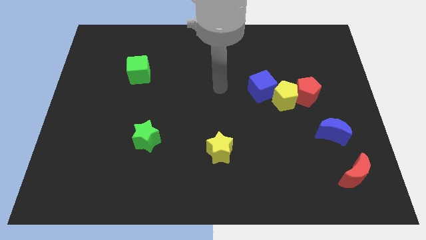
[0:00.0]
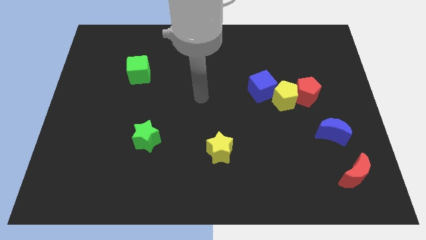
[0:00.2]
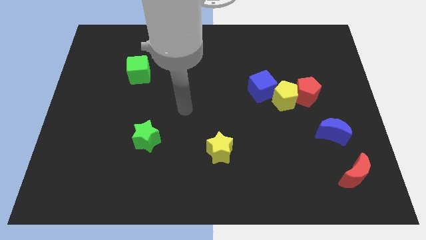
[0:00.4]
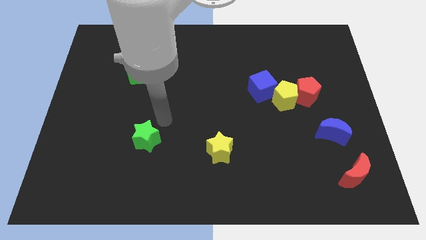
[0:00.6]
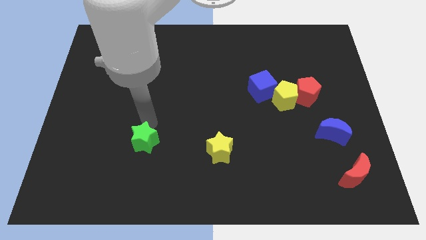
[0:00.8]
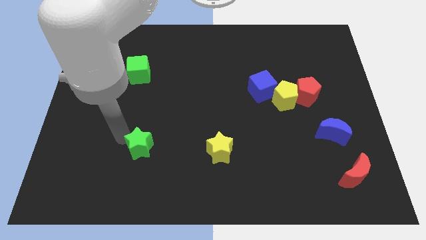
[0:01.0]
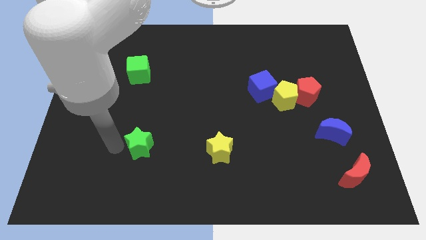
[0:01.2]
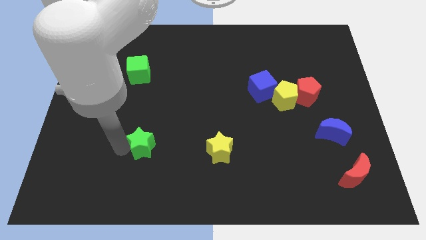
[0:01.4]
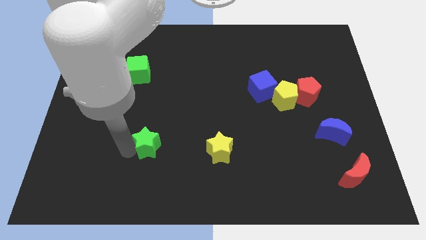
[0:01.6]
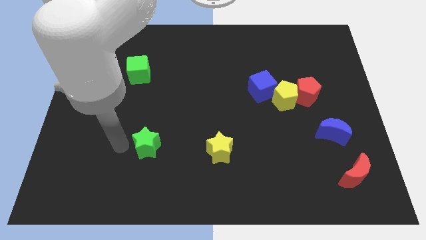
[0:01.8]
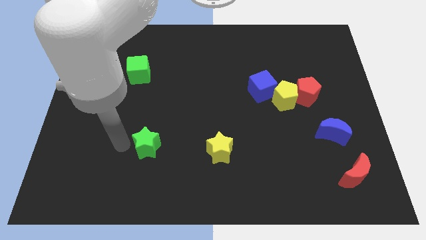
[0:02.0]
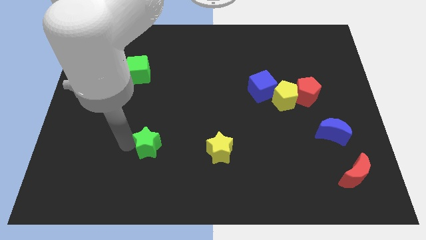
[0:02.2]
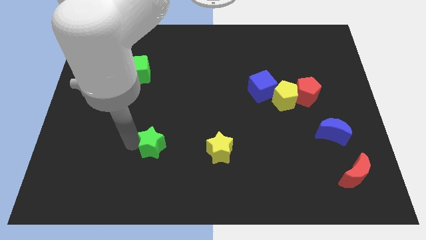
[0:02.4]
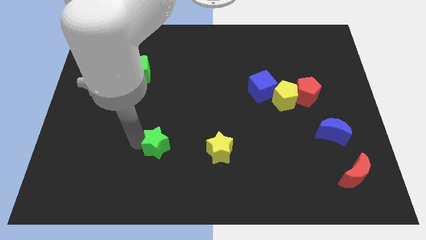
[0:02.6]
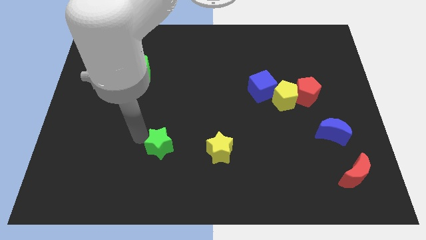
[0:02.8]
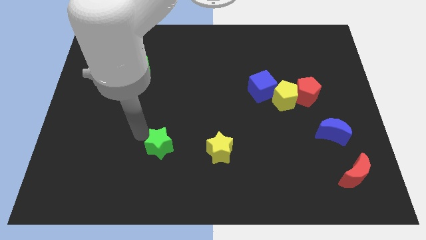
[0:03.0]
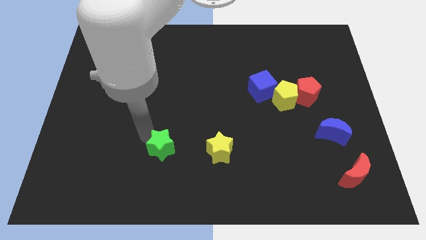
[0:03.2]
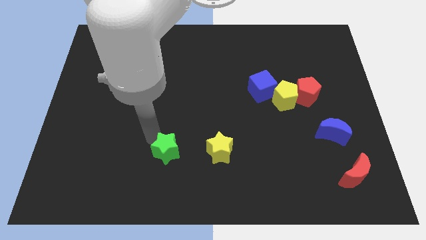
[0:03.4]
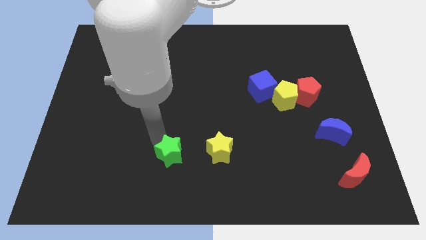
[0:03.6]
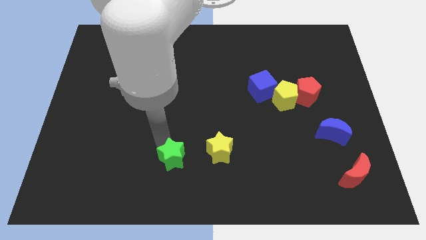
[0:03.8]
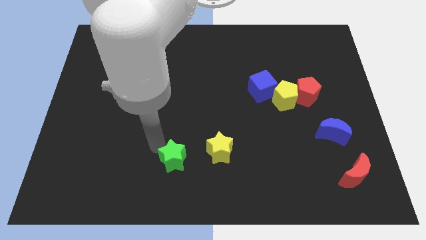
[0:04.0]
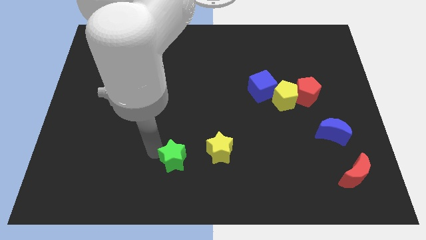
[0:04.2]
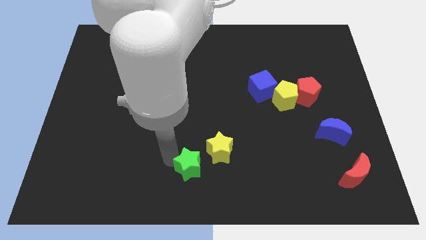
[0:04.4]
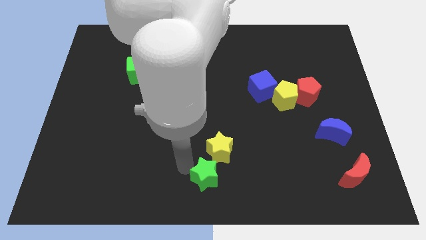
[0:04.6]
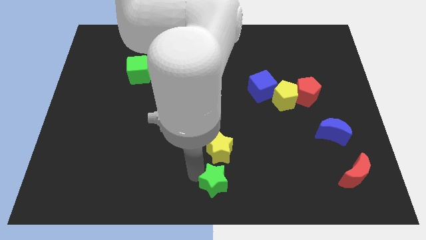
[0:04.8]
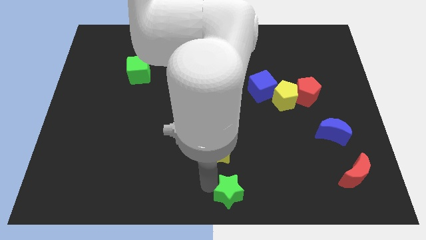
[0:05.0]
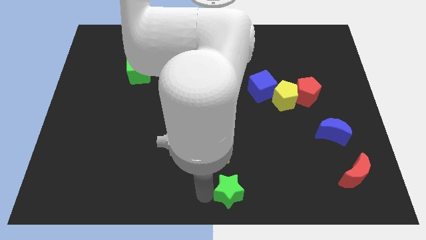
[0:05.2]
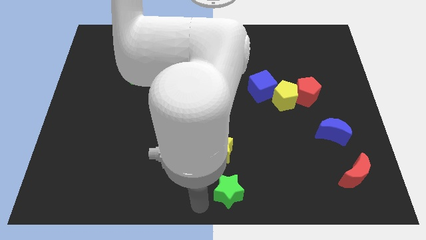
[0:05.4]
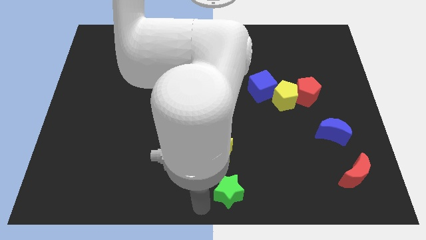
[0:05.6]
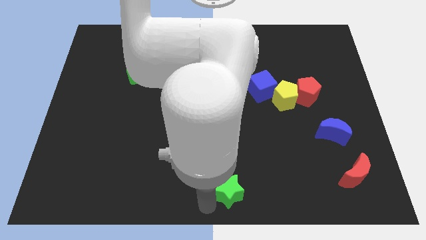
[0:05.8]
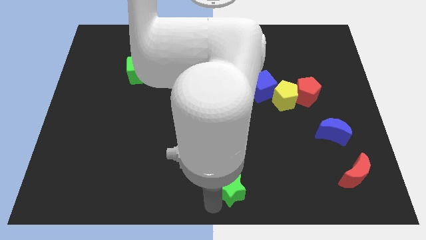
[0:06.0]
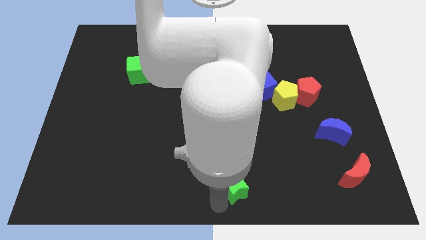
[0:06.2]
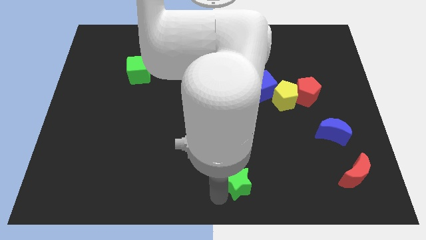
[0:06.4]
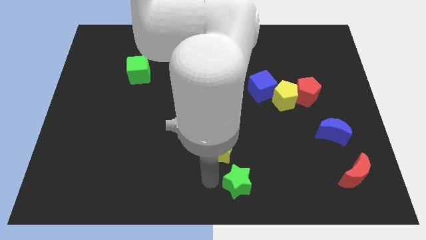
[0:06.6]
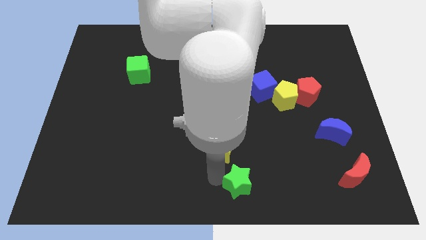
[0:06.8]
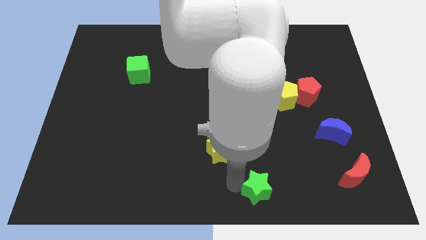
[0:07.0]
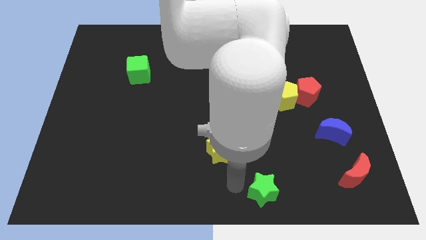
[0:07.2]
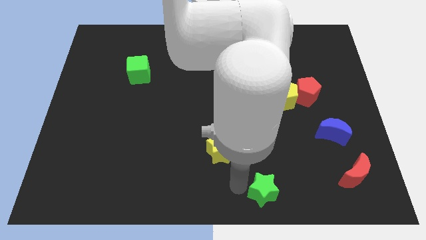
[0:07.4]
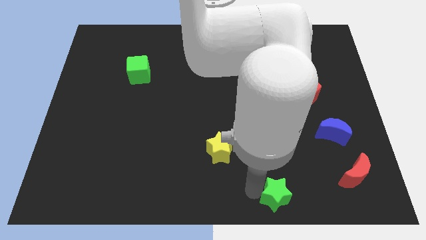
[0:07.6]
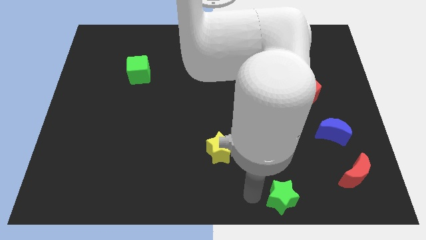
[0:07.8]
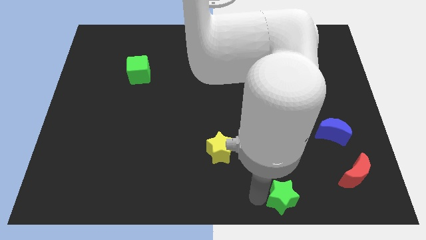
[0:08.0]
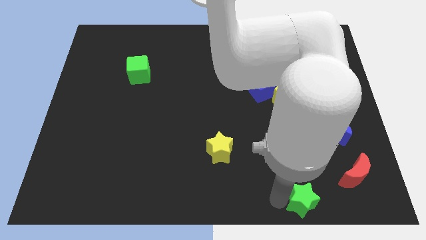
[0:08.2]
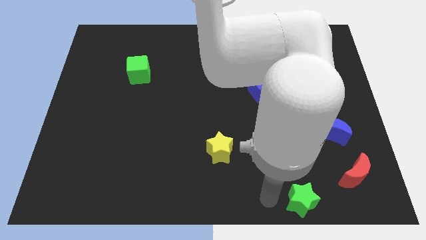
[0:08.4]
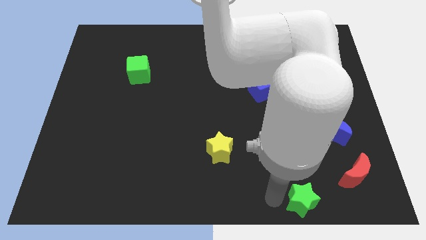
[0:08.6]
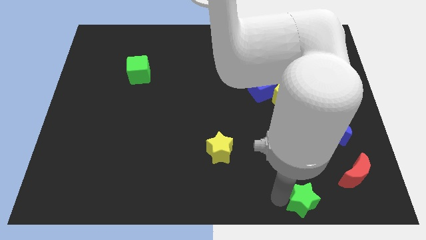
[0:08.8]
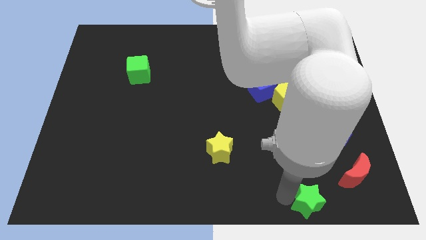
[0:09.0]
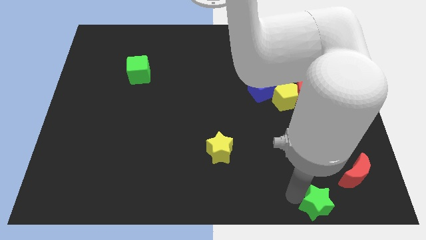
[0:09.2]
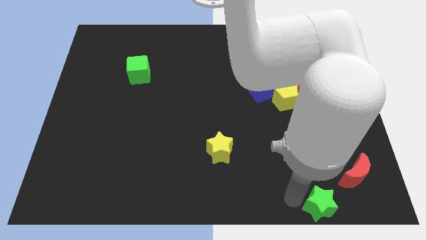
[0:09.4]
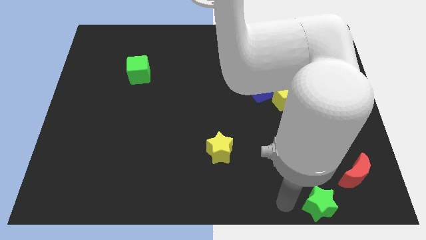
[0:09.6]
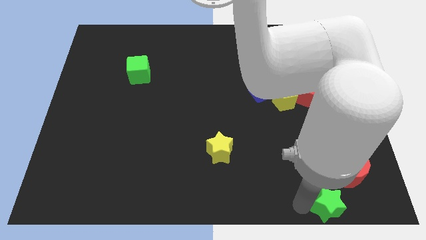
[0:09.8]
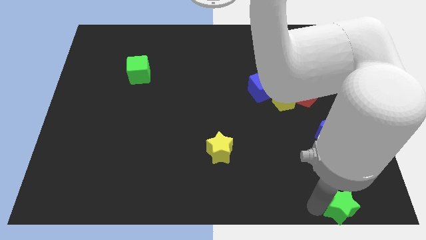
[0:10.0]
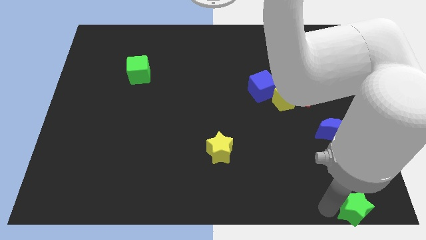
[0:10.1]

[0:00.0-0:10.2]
move the green star to the lower right corner

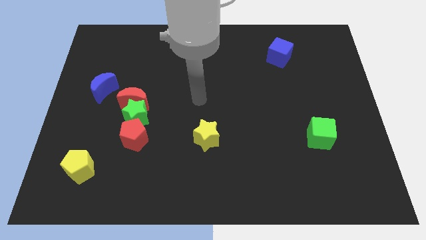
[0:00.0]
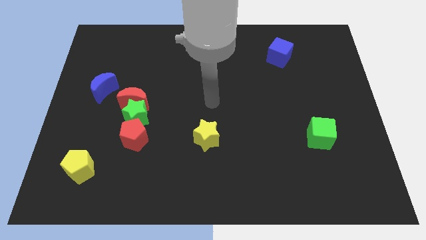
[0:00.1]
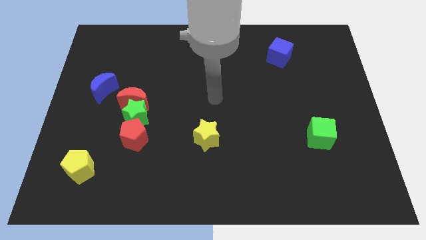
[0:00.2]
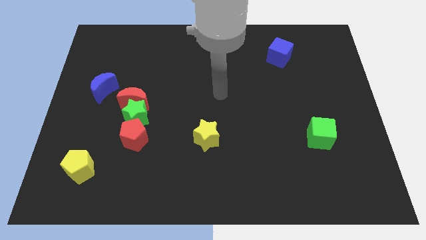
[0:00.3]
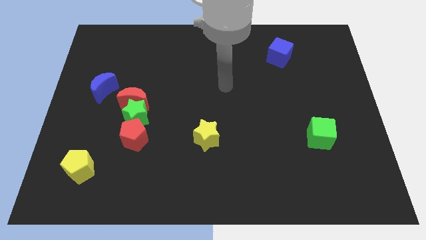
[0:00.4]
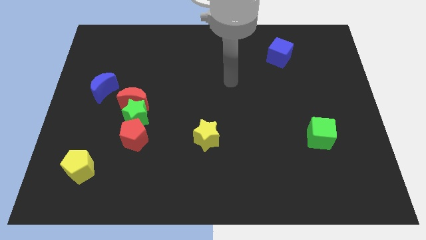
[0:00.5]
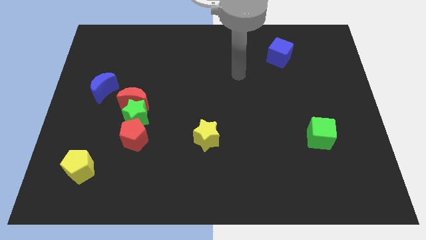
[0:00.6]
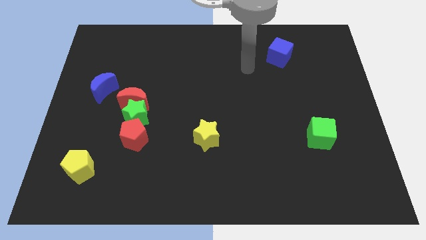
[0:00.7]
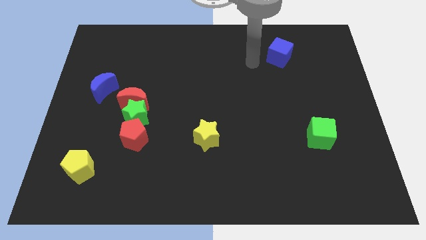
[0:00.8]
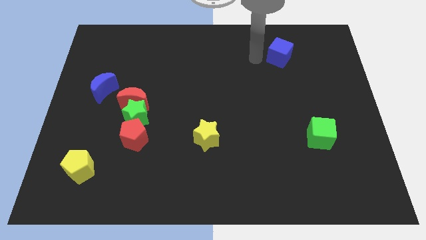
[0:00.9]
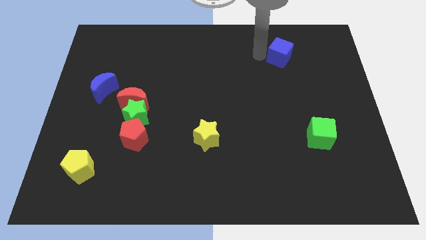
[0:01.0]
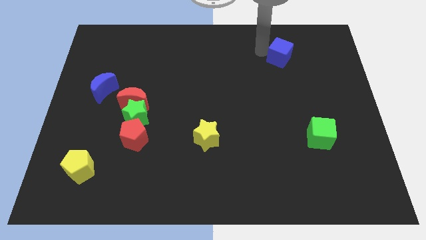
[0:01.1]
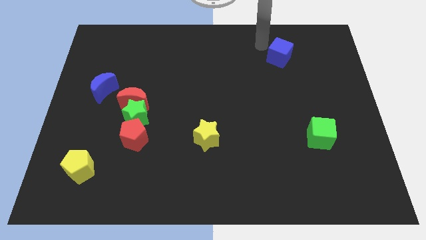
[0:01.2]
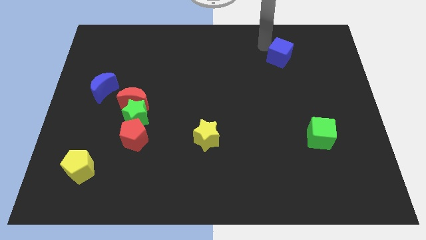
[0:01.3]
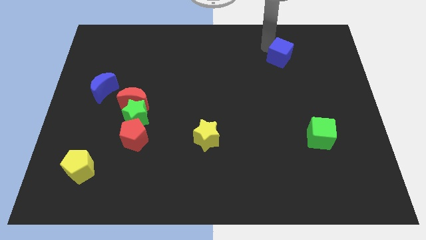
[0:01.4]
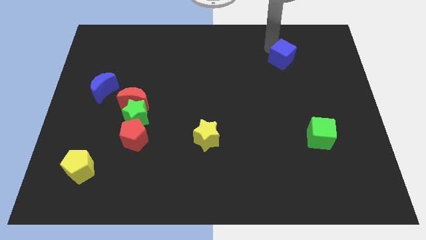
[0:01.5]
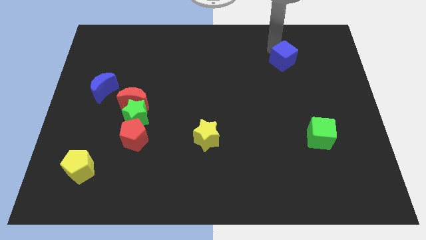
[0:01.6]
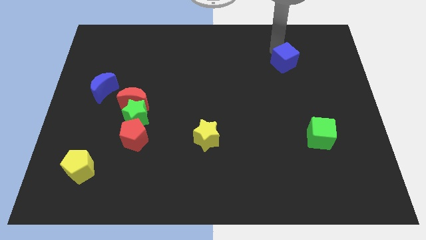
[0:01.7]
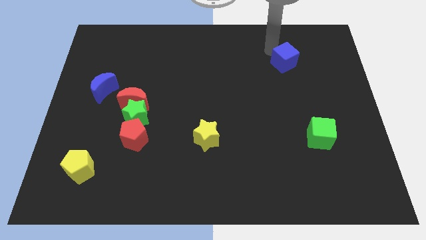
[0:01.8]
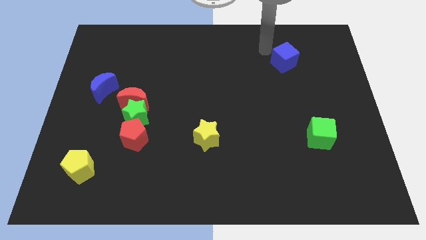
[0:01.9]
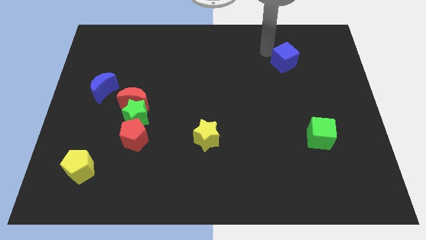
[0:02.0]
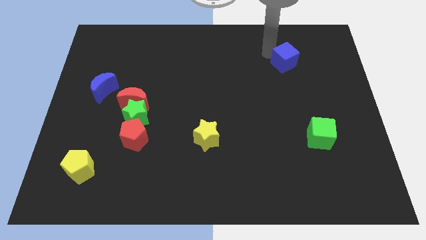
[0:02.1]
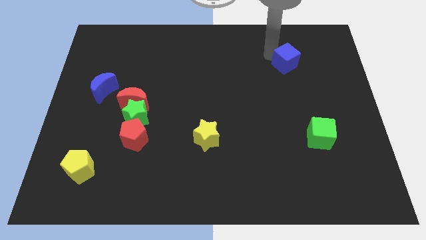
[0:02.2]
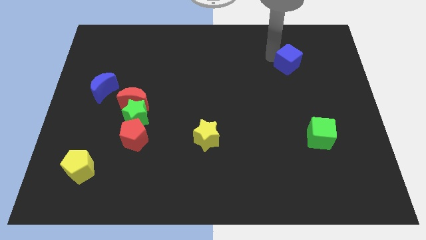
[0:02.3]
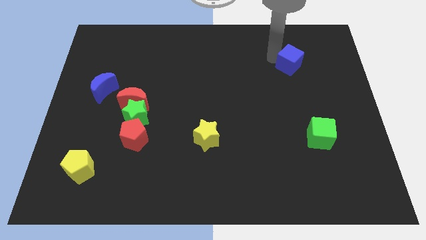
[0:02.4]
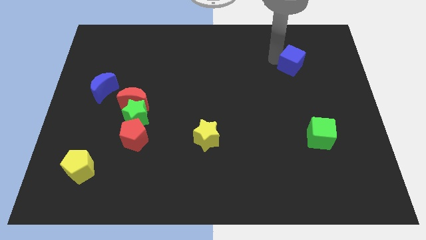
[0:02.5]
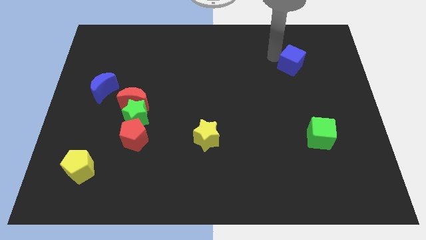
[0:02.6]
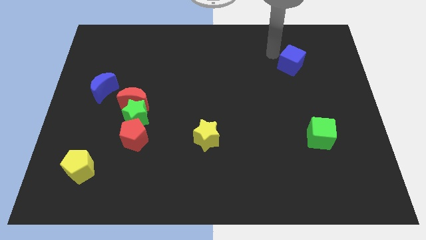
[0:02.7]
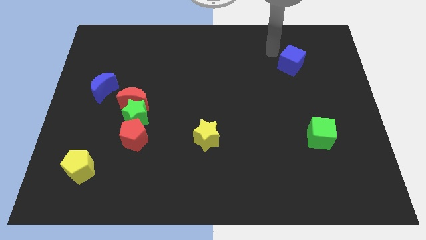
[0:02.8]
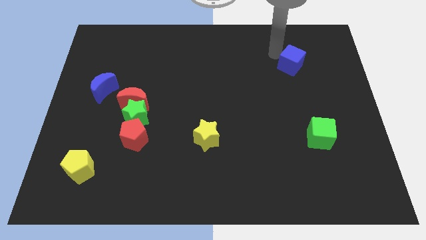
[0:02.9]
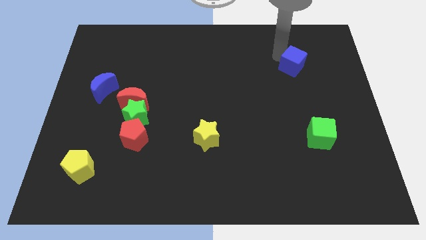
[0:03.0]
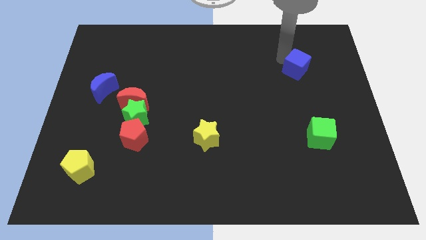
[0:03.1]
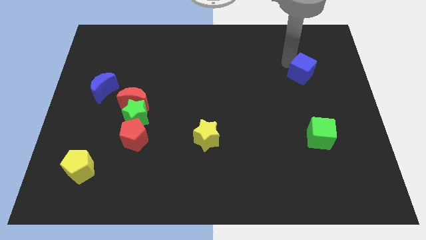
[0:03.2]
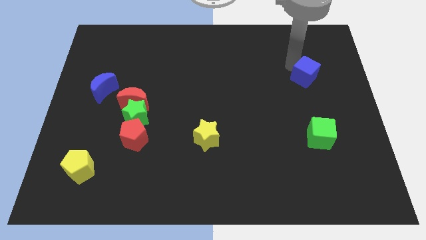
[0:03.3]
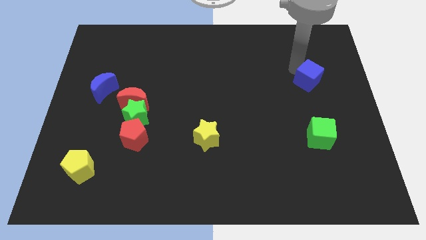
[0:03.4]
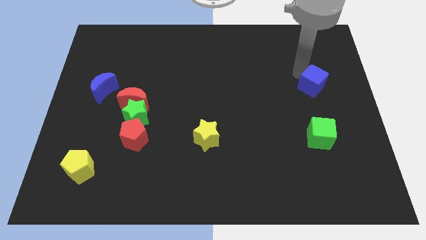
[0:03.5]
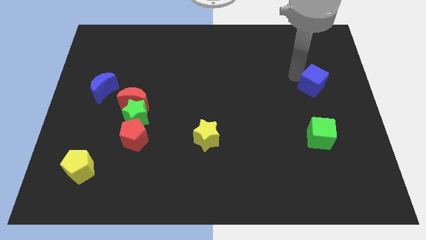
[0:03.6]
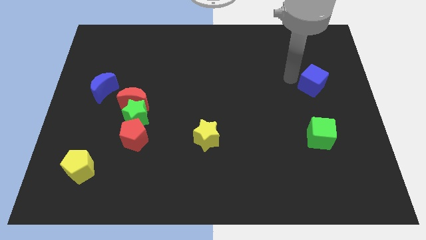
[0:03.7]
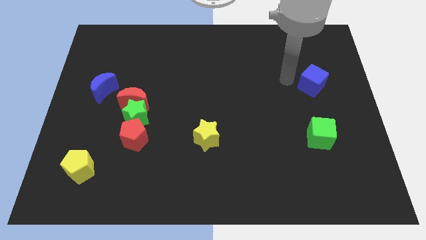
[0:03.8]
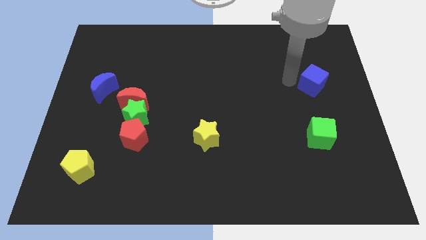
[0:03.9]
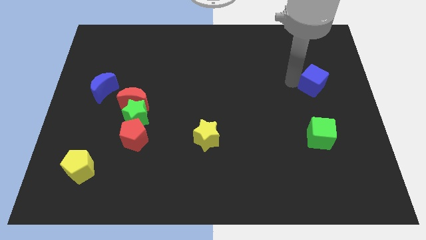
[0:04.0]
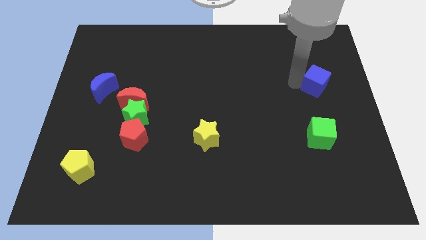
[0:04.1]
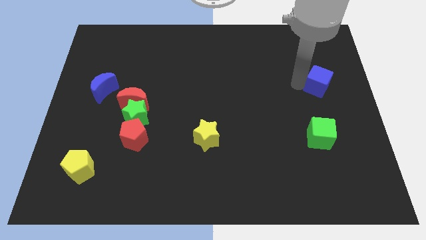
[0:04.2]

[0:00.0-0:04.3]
push the blue cube to the right side of the board
